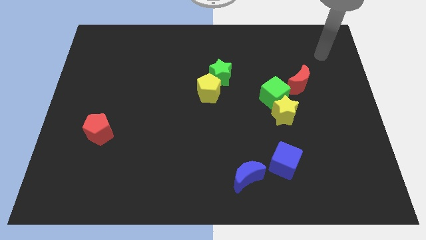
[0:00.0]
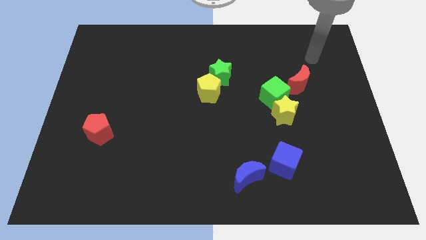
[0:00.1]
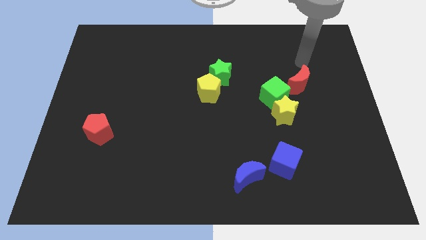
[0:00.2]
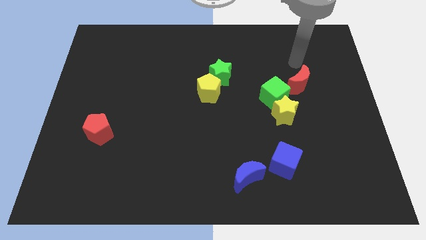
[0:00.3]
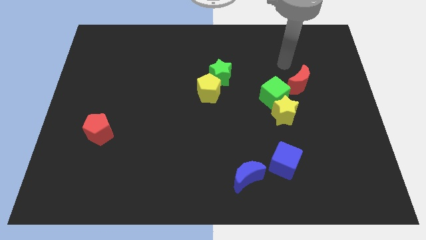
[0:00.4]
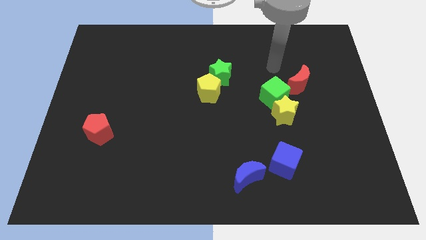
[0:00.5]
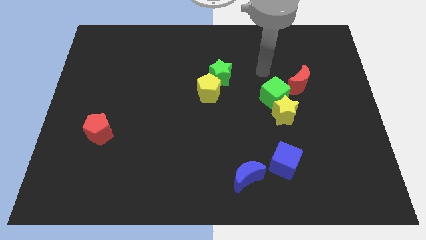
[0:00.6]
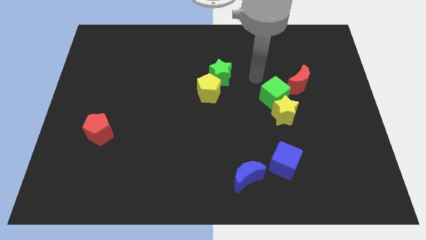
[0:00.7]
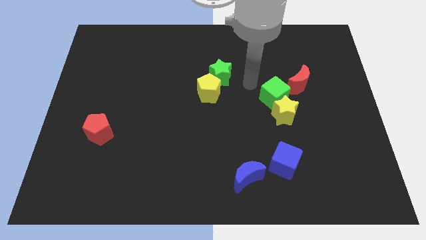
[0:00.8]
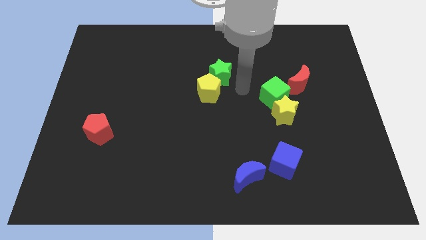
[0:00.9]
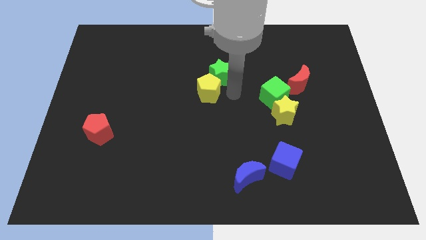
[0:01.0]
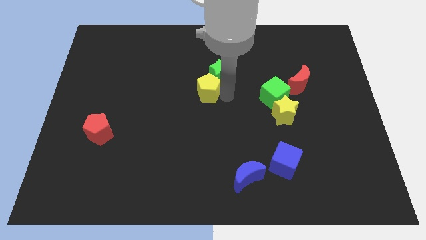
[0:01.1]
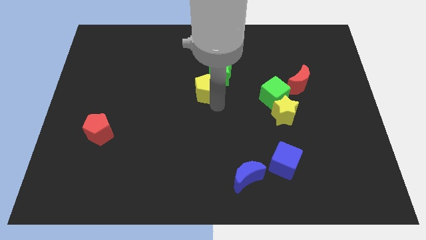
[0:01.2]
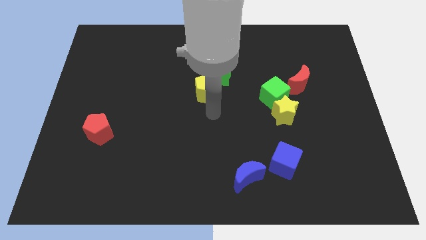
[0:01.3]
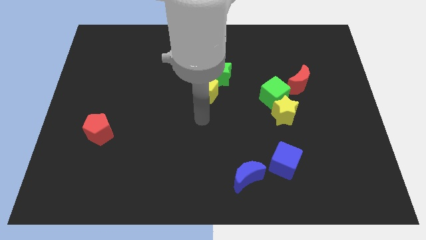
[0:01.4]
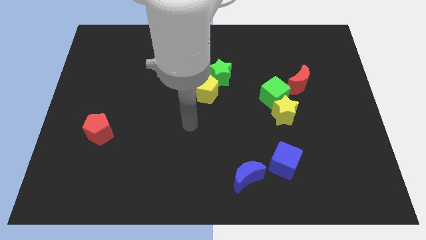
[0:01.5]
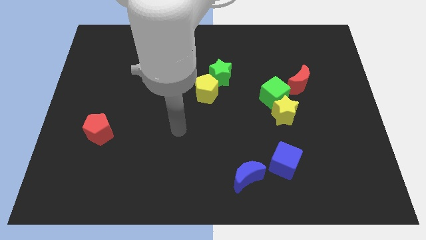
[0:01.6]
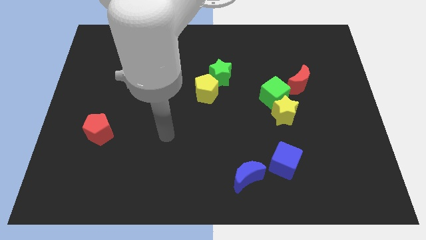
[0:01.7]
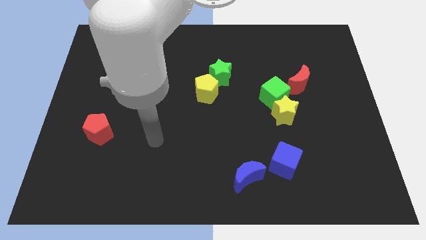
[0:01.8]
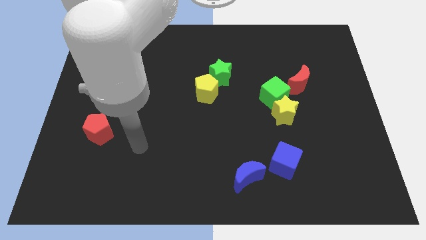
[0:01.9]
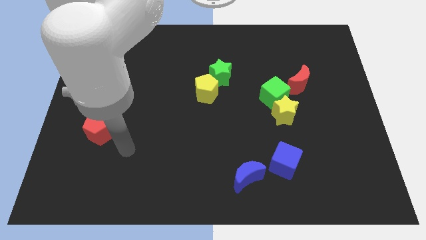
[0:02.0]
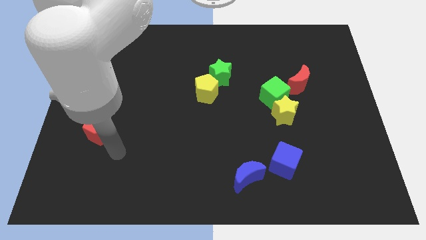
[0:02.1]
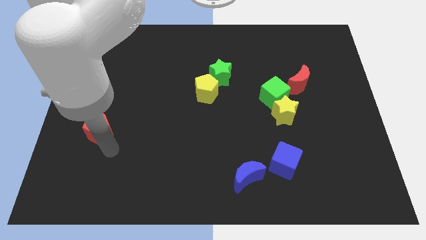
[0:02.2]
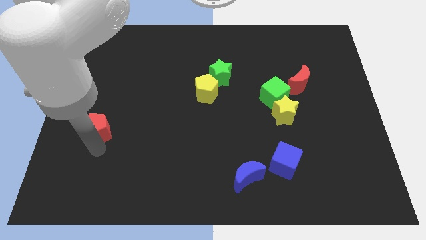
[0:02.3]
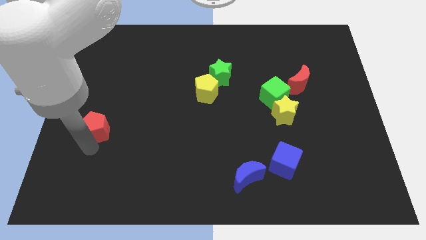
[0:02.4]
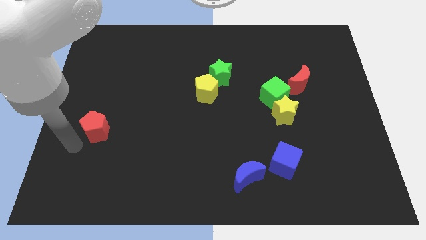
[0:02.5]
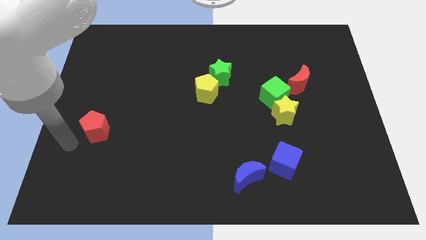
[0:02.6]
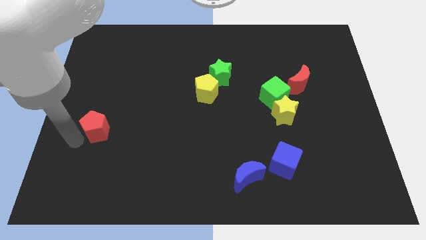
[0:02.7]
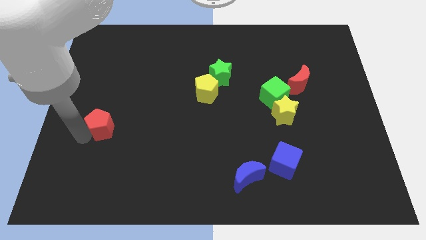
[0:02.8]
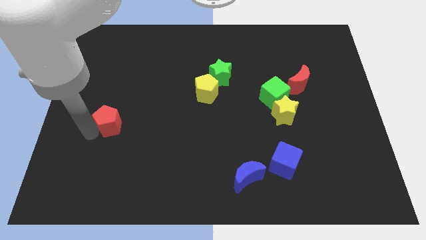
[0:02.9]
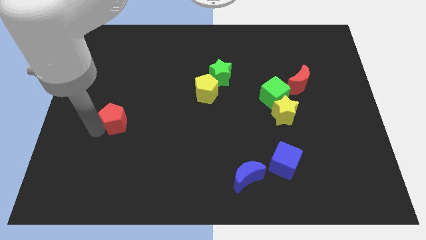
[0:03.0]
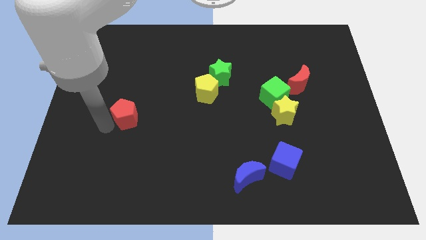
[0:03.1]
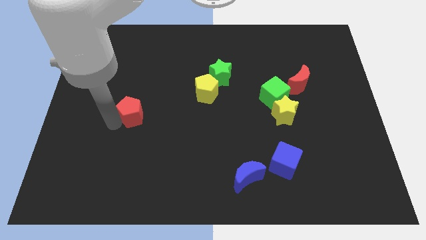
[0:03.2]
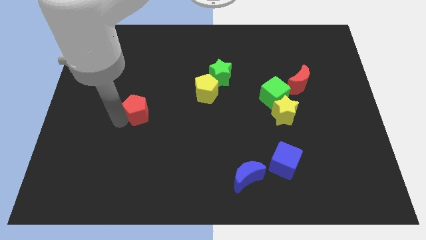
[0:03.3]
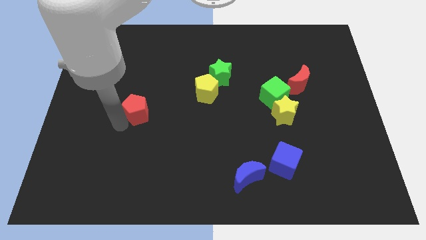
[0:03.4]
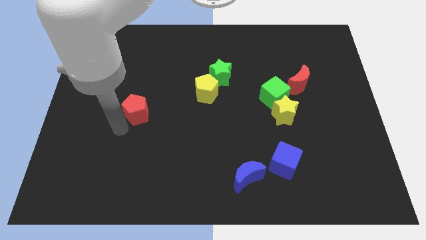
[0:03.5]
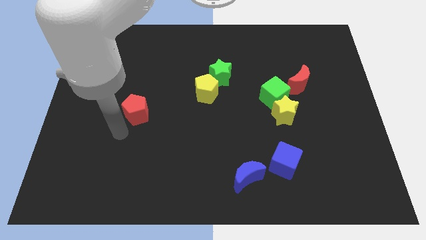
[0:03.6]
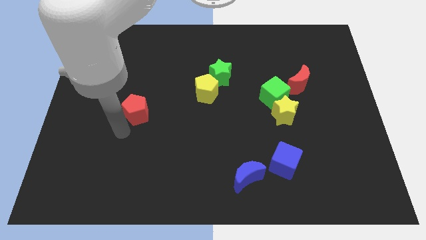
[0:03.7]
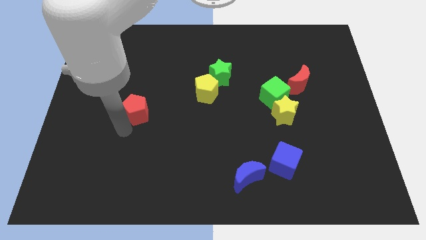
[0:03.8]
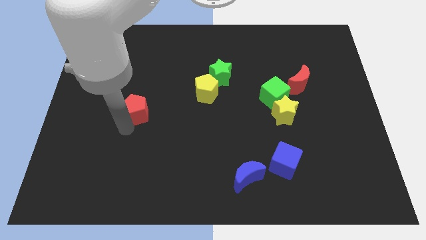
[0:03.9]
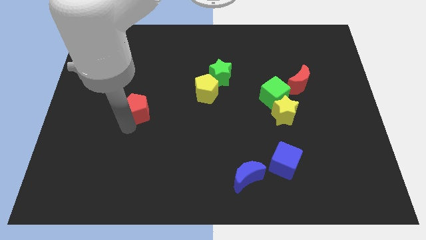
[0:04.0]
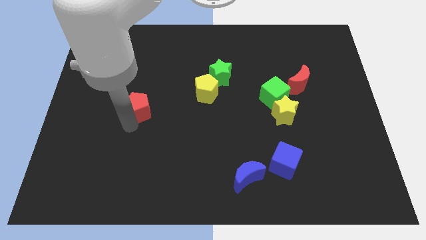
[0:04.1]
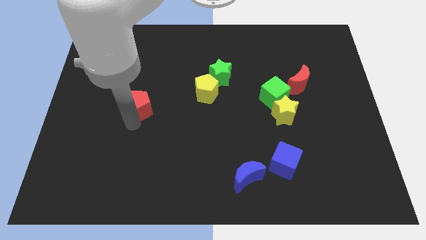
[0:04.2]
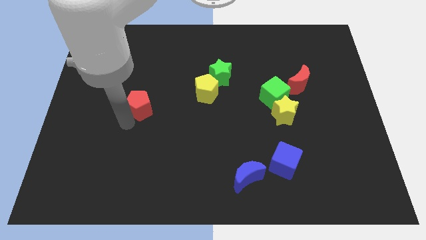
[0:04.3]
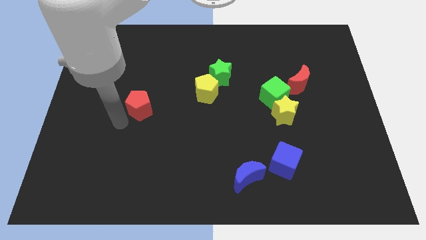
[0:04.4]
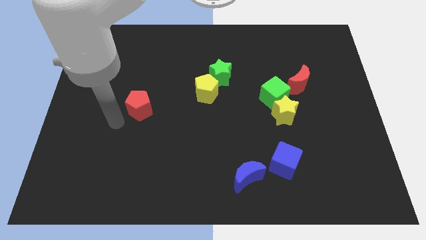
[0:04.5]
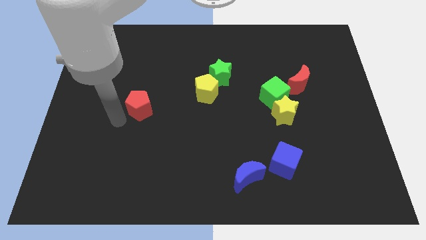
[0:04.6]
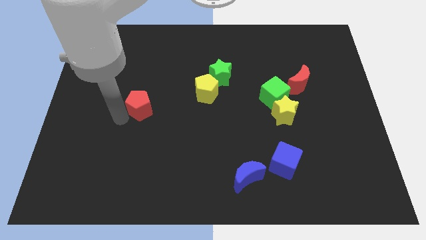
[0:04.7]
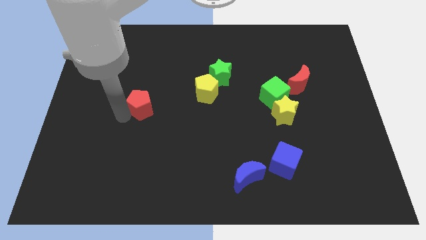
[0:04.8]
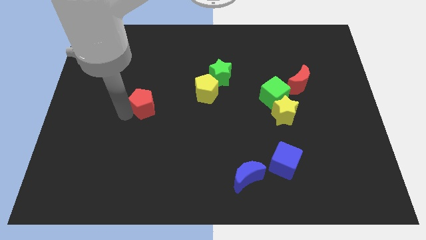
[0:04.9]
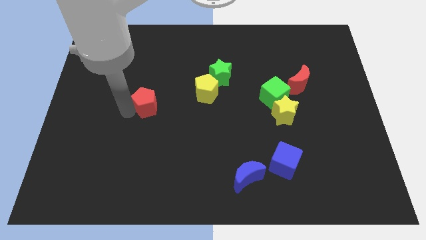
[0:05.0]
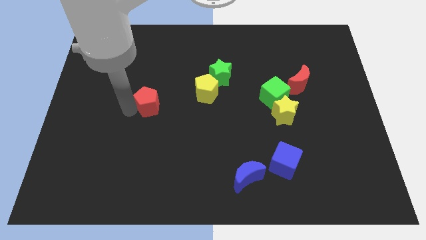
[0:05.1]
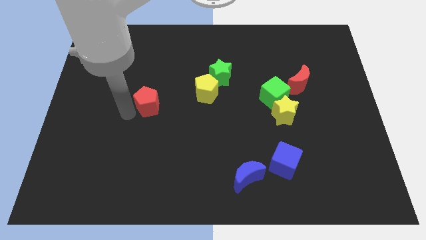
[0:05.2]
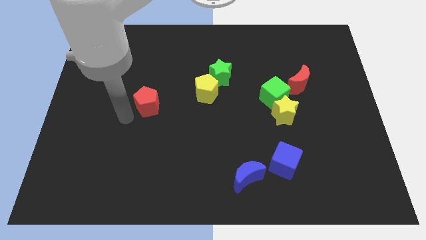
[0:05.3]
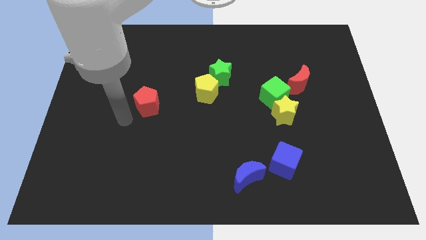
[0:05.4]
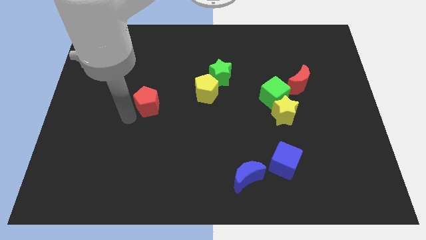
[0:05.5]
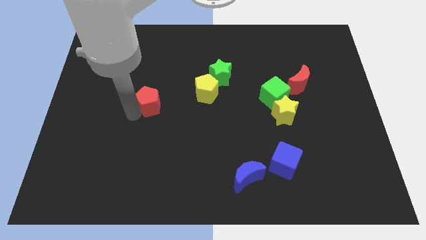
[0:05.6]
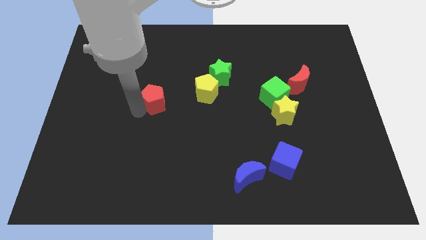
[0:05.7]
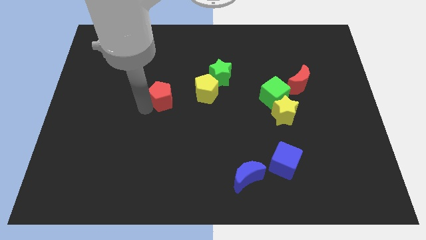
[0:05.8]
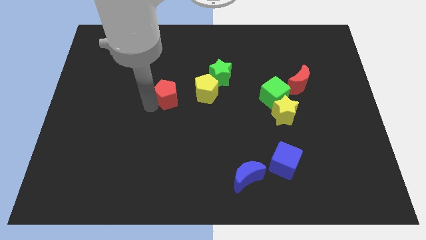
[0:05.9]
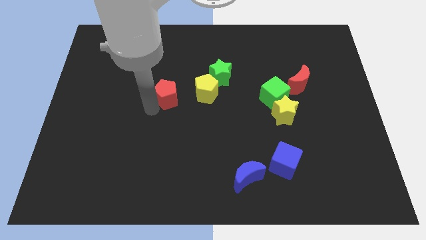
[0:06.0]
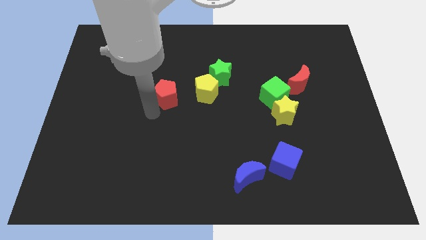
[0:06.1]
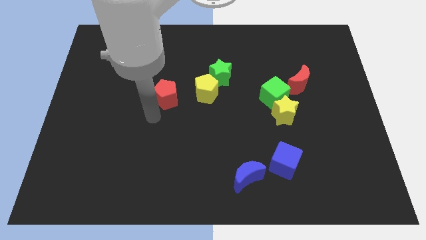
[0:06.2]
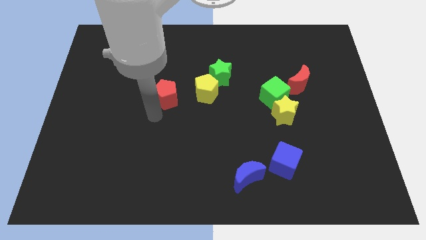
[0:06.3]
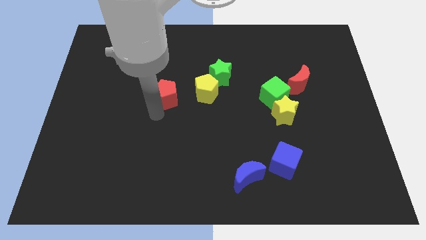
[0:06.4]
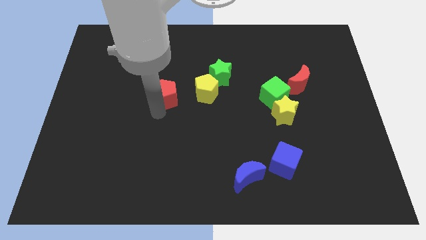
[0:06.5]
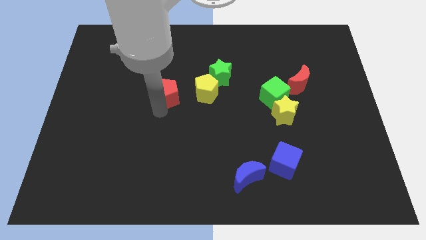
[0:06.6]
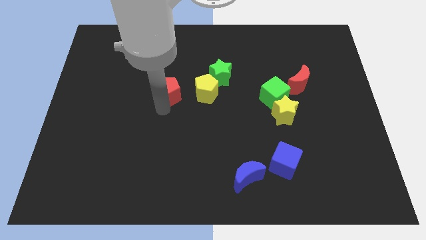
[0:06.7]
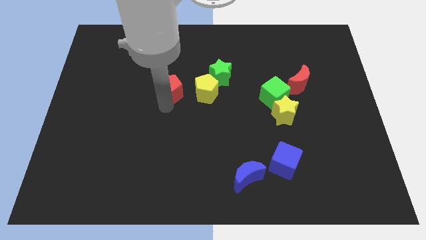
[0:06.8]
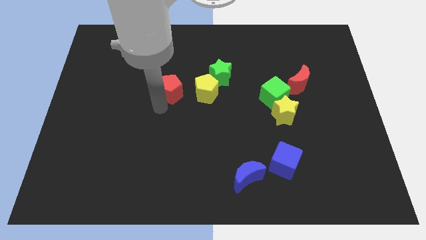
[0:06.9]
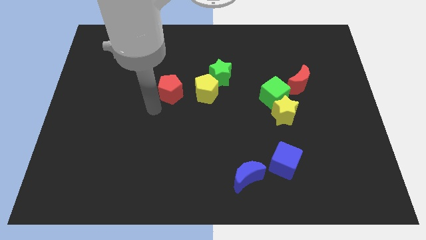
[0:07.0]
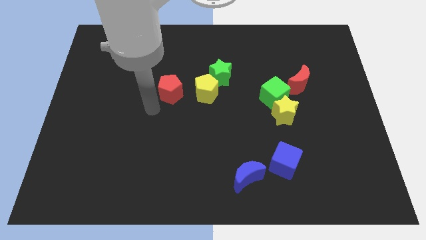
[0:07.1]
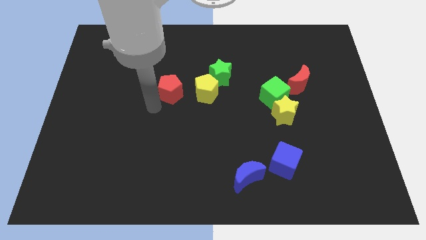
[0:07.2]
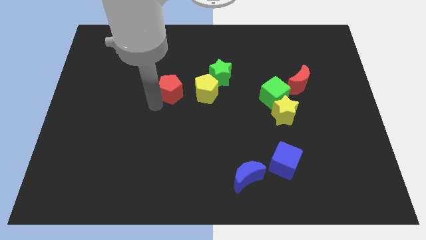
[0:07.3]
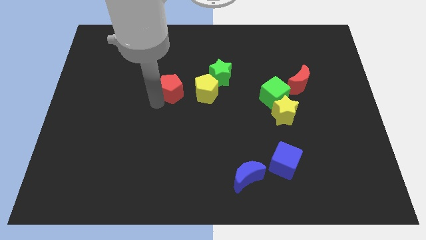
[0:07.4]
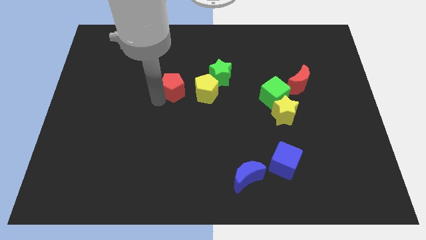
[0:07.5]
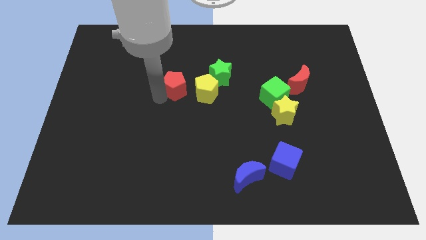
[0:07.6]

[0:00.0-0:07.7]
push the red pentagon up and then right

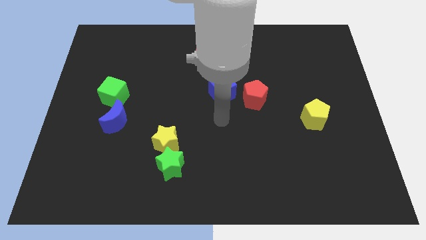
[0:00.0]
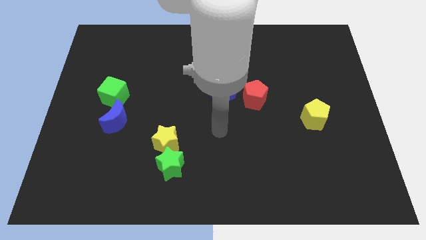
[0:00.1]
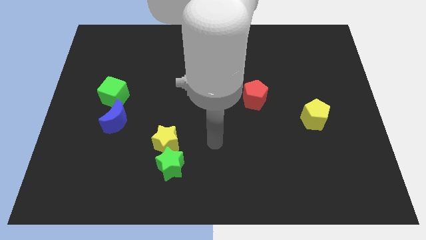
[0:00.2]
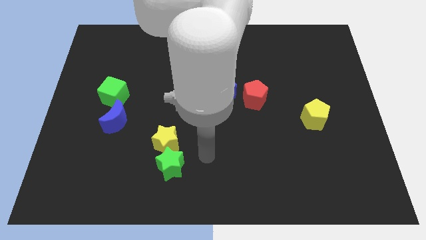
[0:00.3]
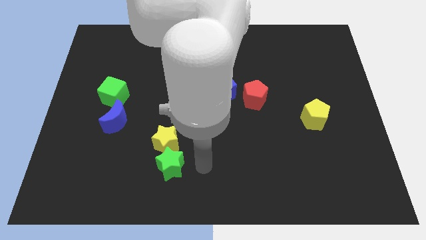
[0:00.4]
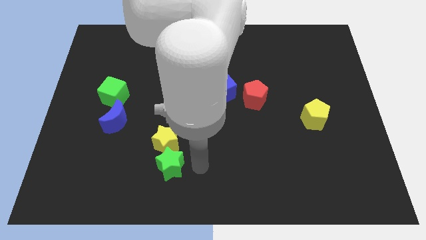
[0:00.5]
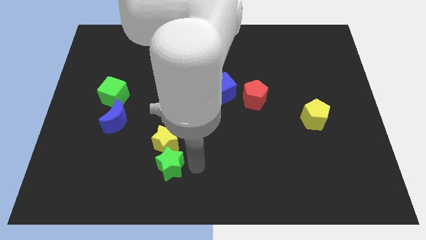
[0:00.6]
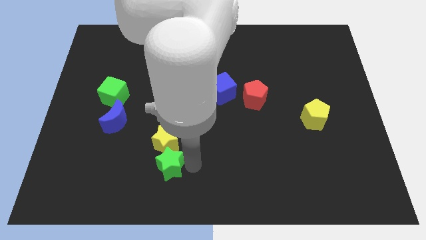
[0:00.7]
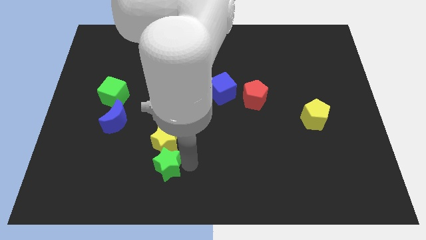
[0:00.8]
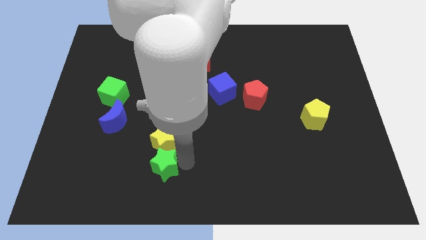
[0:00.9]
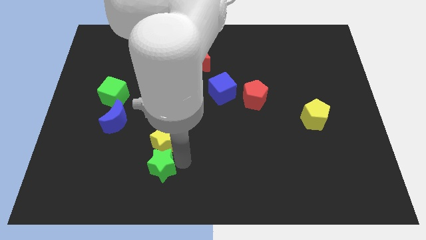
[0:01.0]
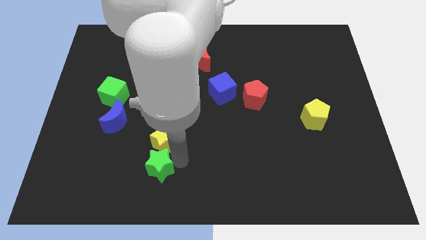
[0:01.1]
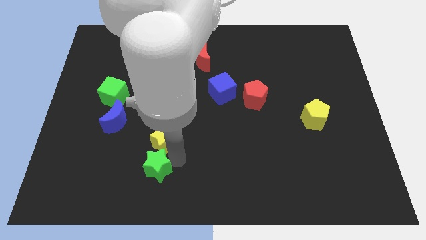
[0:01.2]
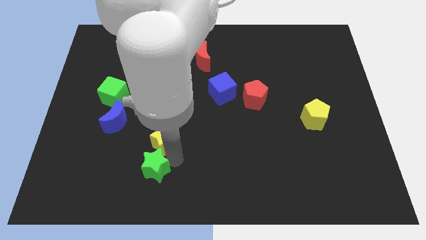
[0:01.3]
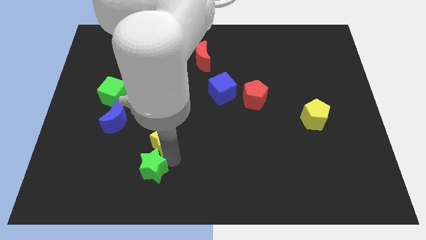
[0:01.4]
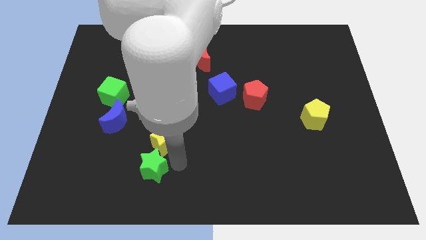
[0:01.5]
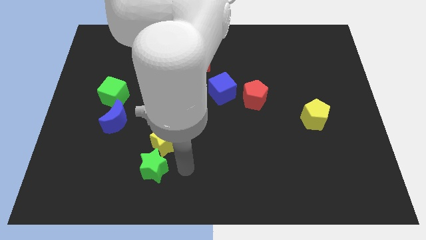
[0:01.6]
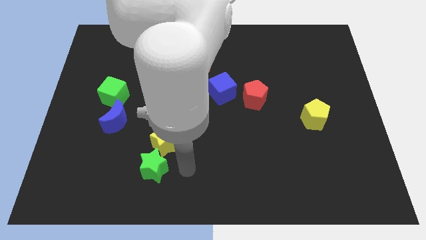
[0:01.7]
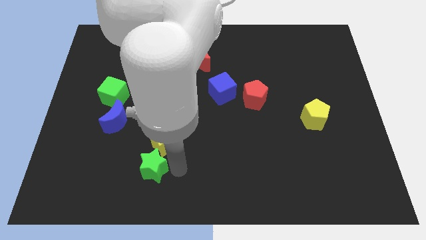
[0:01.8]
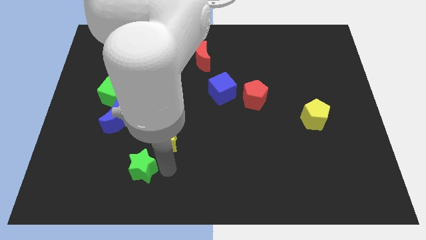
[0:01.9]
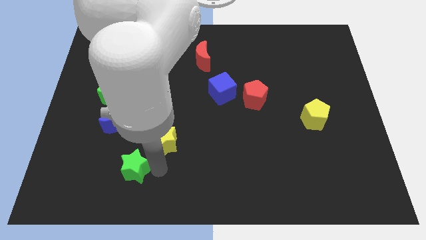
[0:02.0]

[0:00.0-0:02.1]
slide the green star left a little bit
